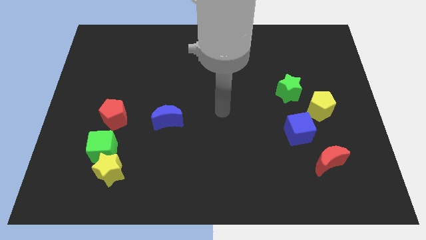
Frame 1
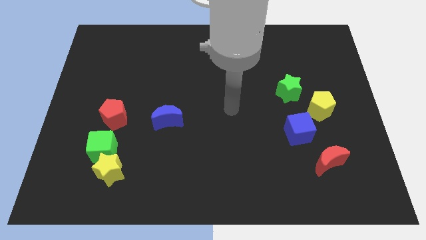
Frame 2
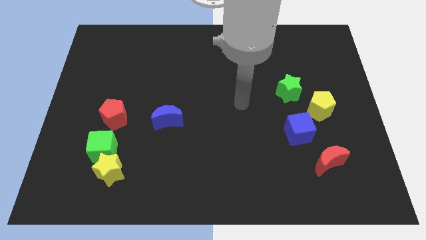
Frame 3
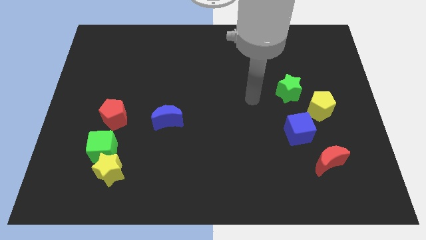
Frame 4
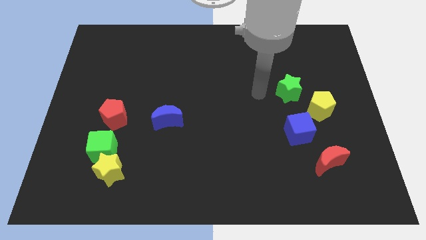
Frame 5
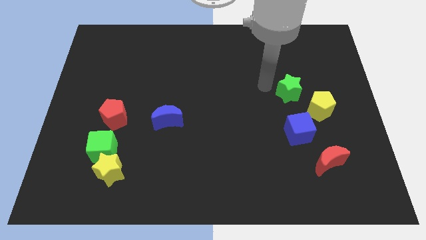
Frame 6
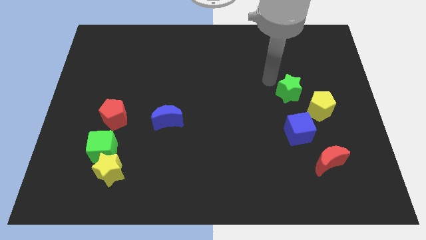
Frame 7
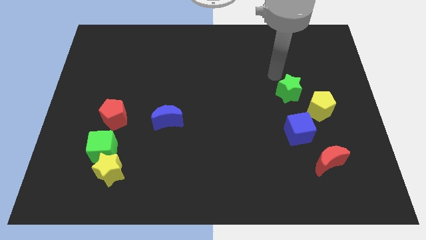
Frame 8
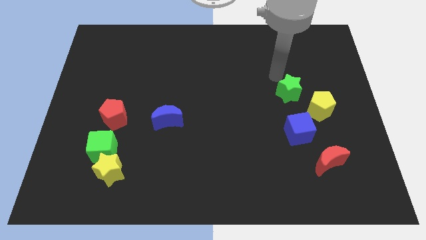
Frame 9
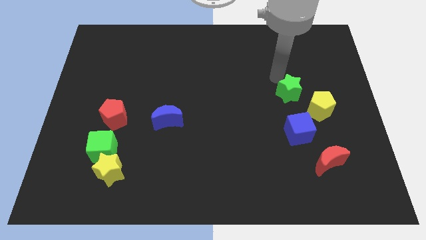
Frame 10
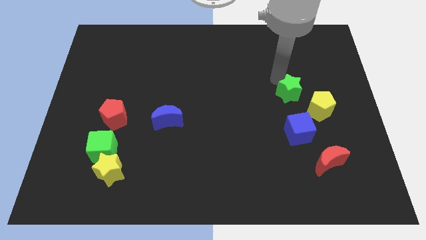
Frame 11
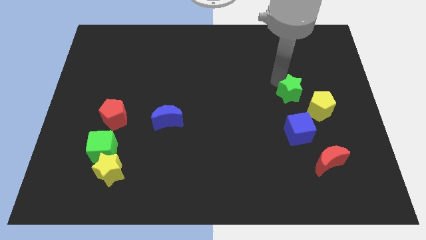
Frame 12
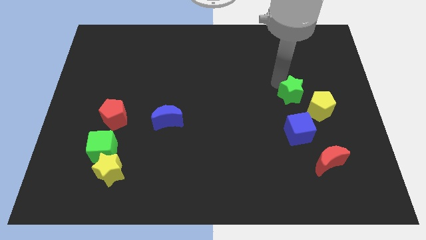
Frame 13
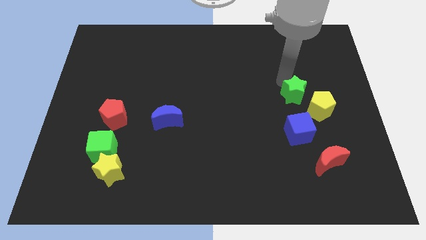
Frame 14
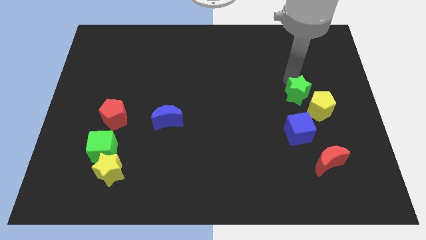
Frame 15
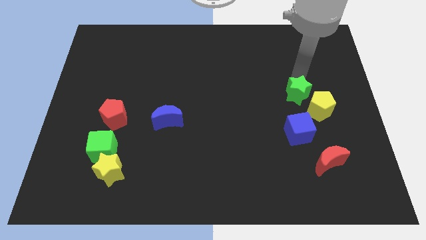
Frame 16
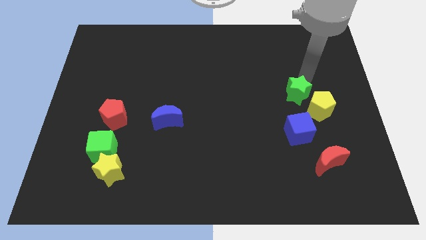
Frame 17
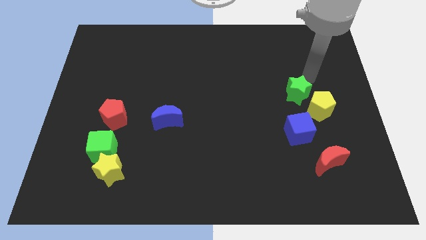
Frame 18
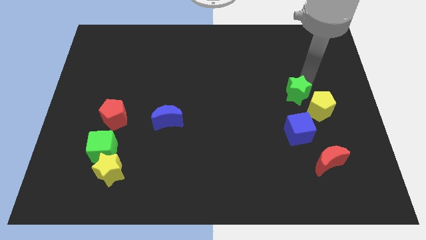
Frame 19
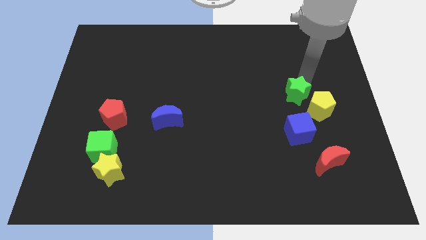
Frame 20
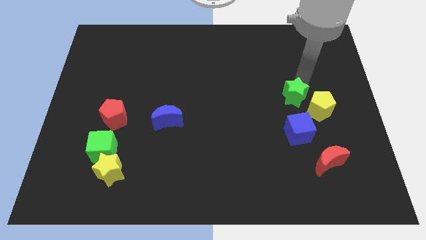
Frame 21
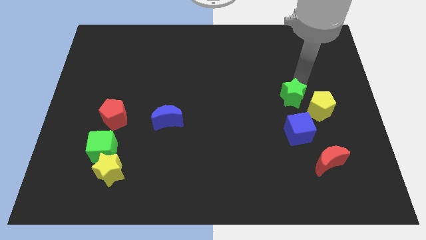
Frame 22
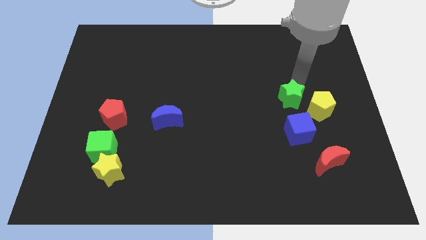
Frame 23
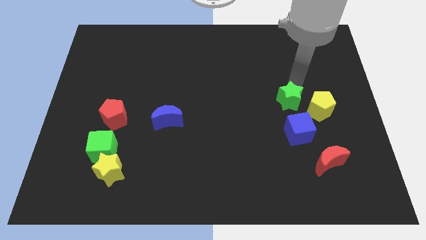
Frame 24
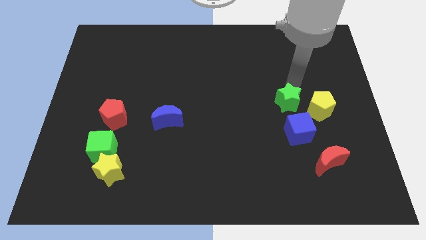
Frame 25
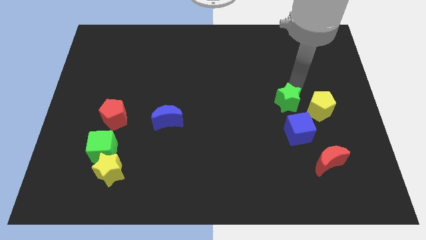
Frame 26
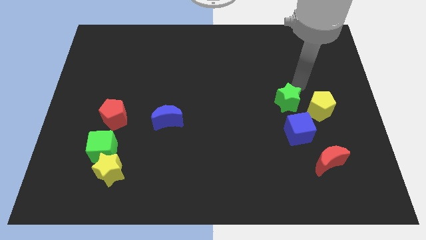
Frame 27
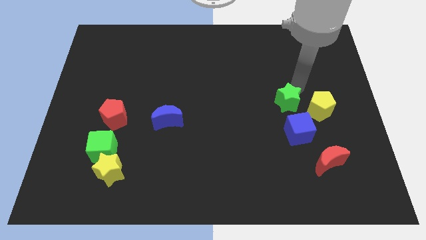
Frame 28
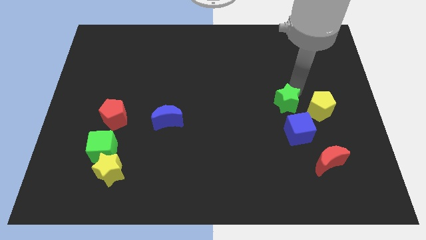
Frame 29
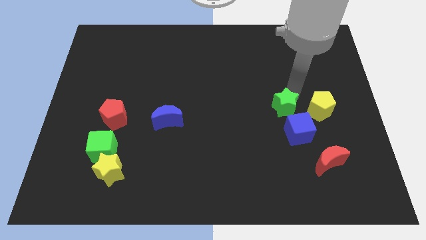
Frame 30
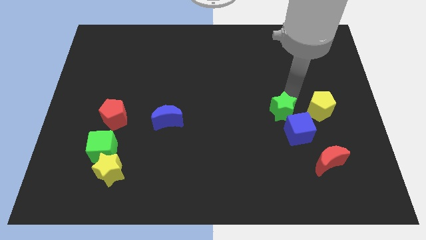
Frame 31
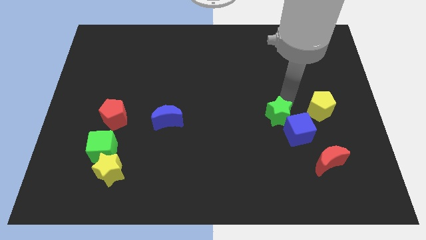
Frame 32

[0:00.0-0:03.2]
slightly slide the green star downwards

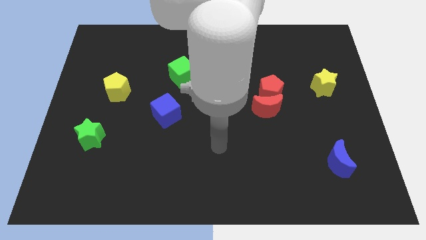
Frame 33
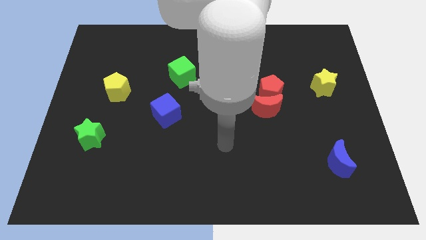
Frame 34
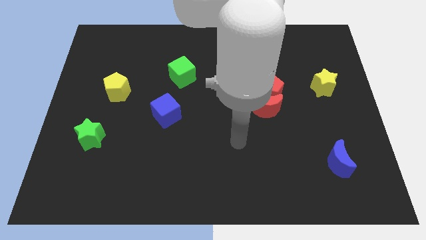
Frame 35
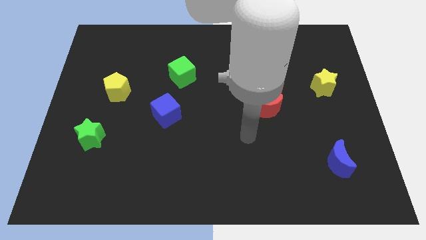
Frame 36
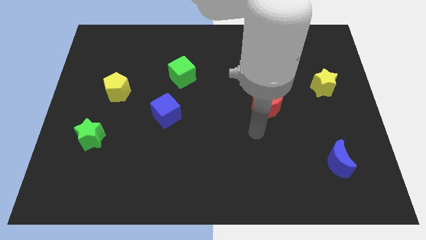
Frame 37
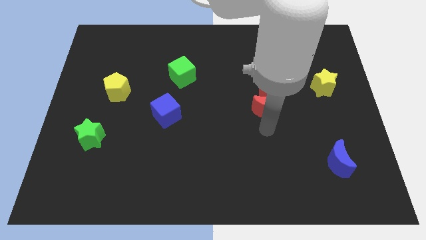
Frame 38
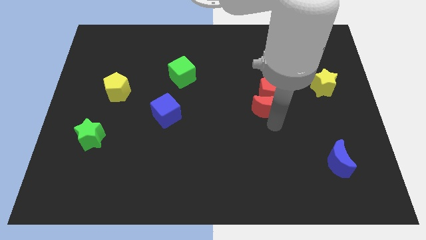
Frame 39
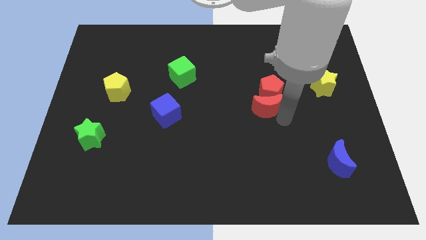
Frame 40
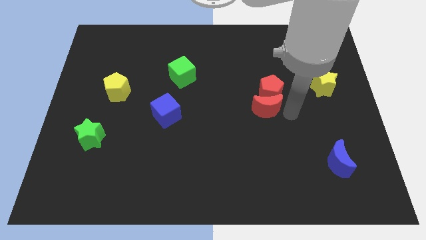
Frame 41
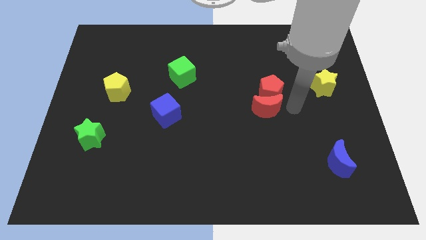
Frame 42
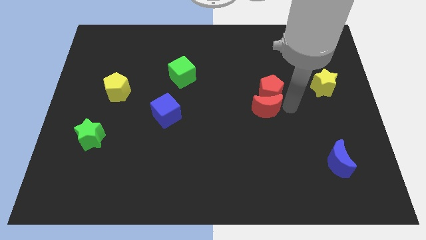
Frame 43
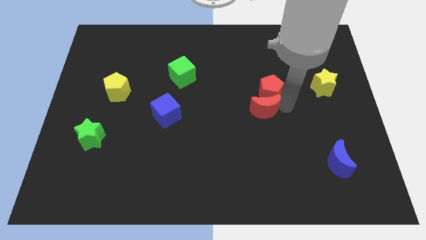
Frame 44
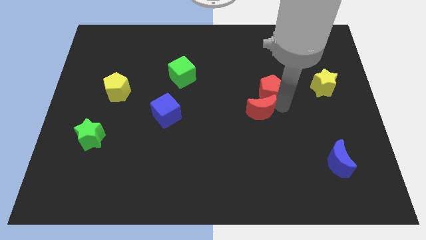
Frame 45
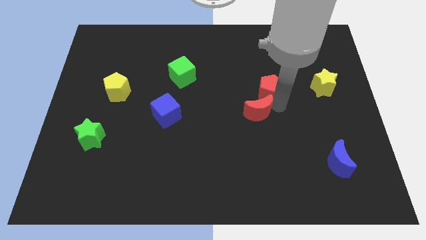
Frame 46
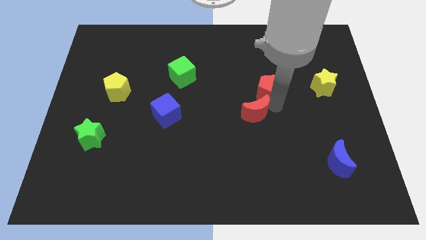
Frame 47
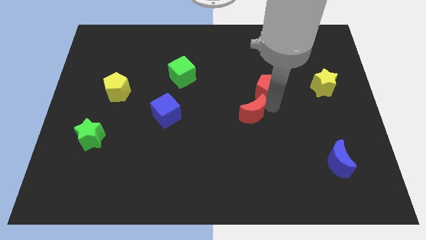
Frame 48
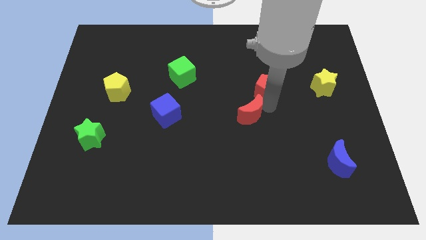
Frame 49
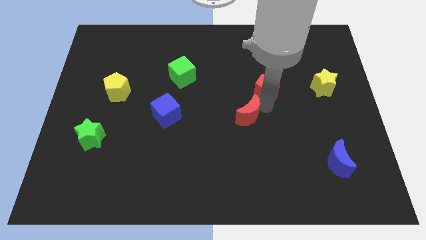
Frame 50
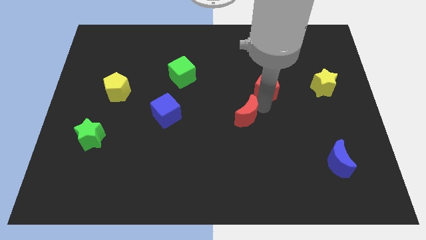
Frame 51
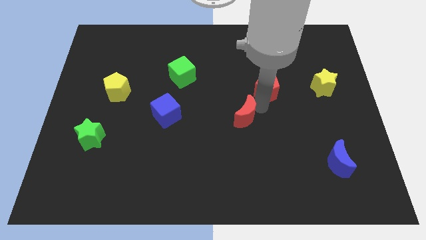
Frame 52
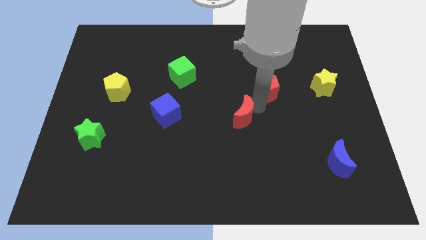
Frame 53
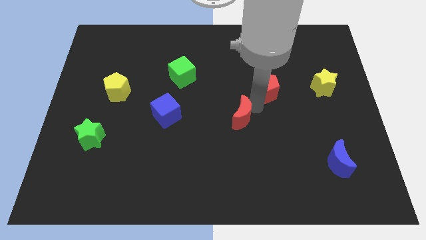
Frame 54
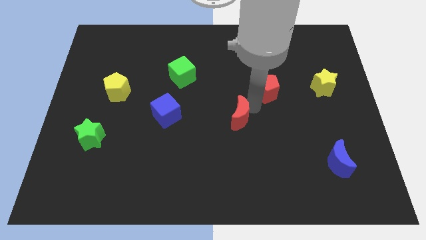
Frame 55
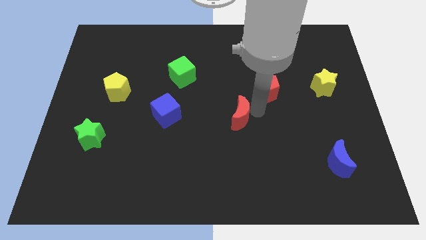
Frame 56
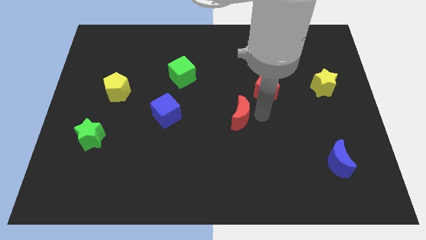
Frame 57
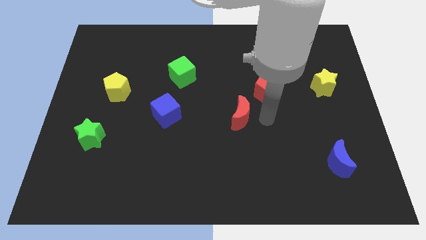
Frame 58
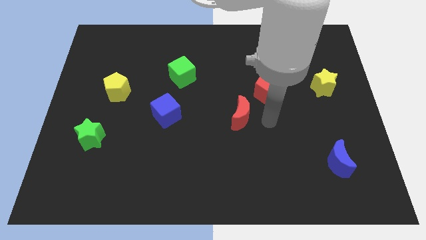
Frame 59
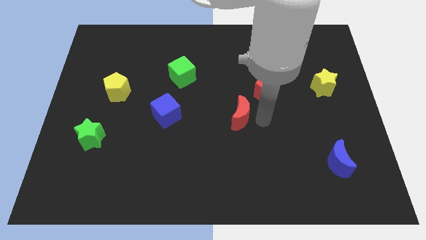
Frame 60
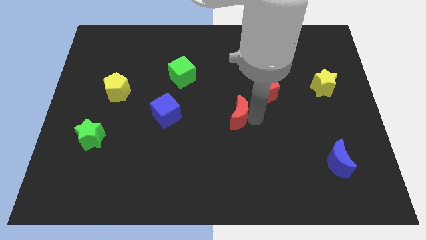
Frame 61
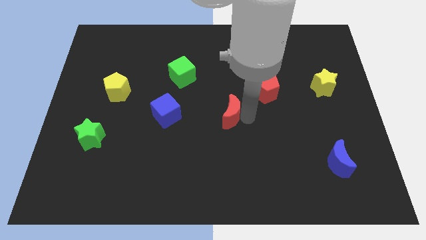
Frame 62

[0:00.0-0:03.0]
move the red moon a little to the left

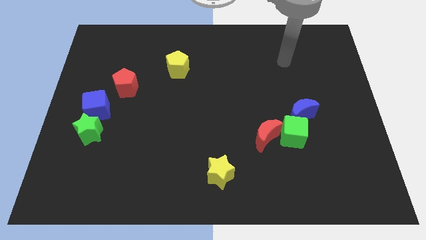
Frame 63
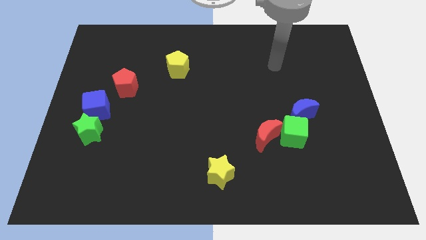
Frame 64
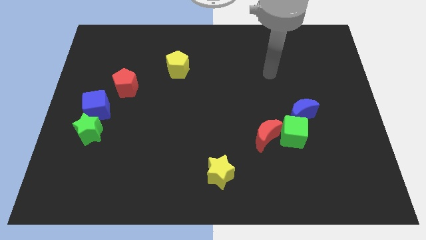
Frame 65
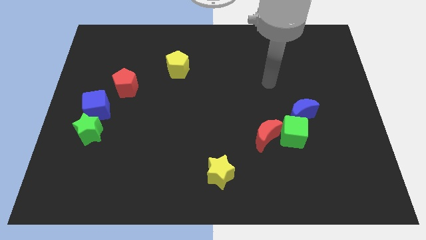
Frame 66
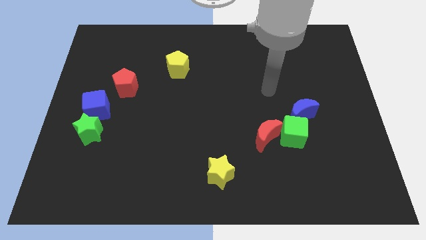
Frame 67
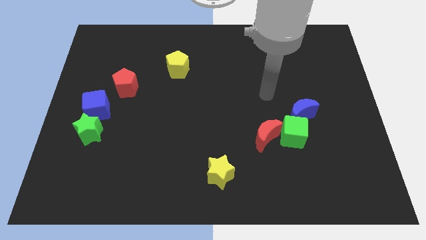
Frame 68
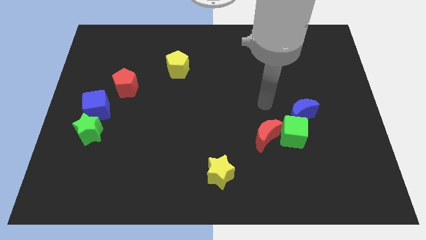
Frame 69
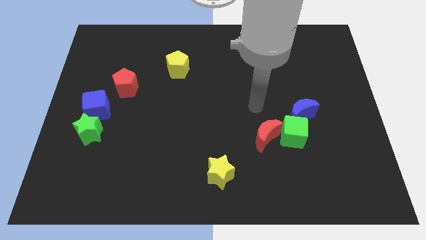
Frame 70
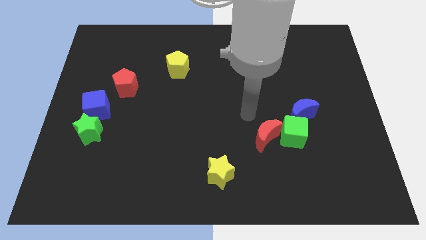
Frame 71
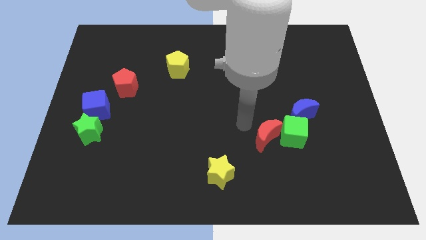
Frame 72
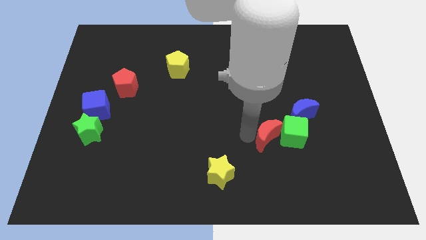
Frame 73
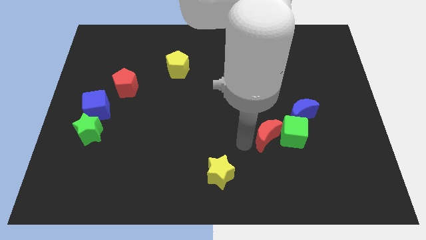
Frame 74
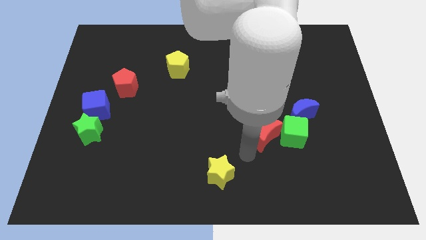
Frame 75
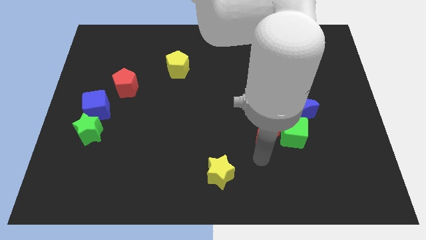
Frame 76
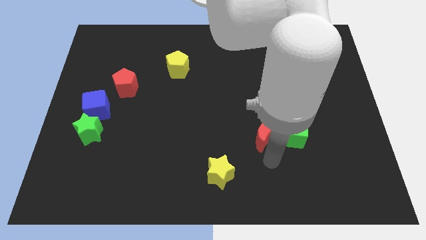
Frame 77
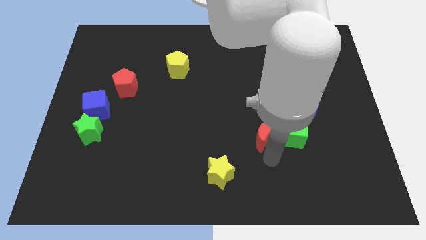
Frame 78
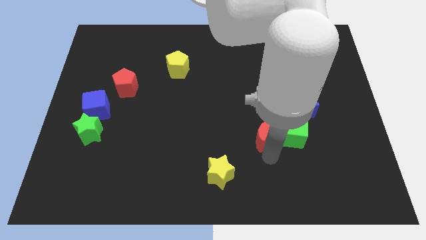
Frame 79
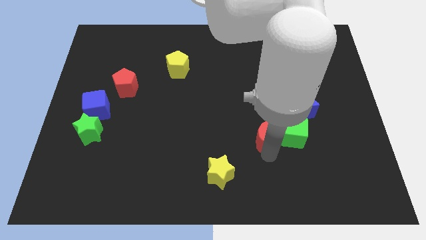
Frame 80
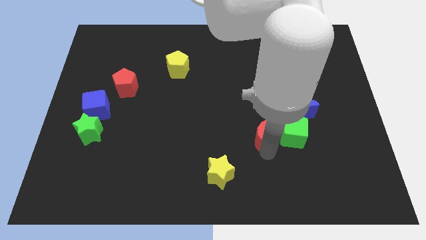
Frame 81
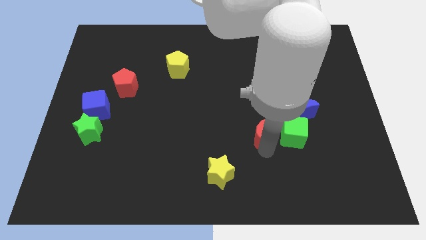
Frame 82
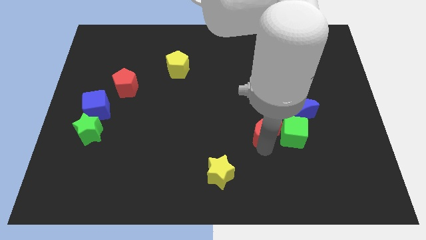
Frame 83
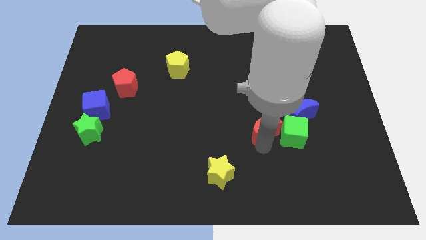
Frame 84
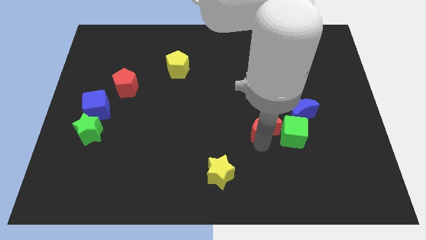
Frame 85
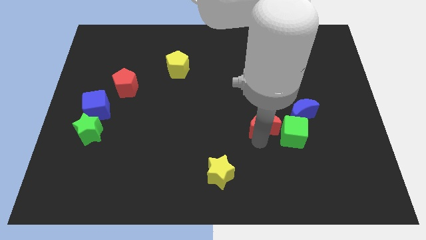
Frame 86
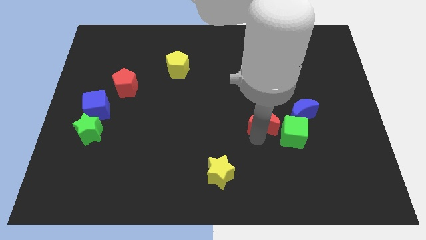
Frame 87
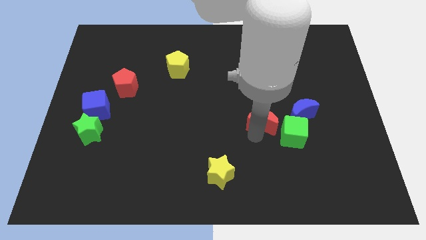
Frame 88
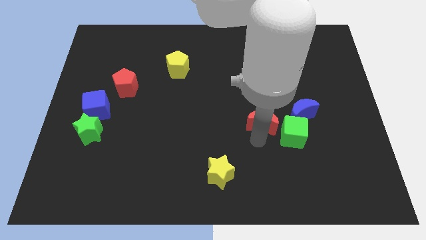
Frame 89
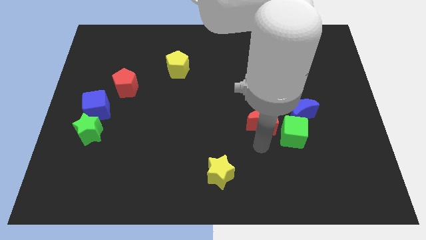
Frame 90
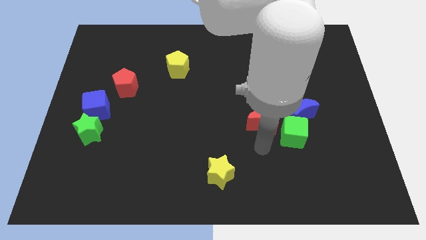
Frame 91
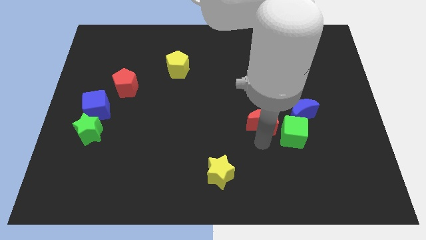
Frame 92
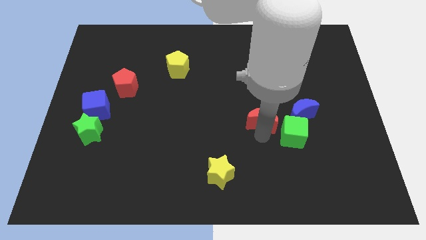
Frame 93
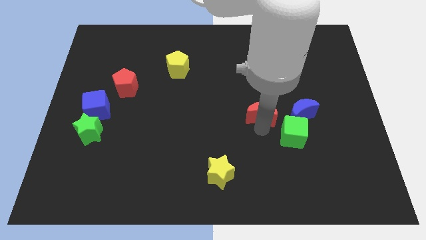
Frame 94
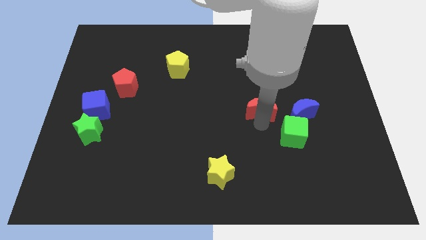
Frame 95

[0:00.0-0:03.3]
slide the red moon upwards a bit
